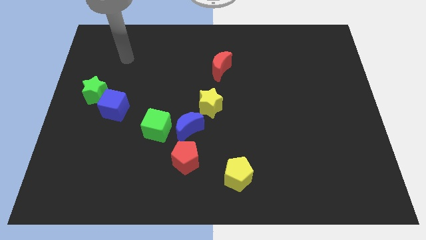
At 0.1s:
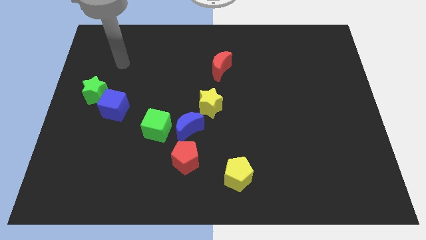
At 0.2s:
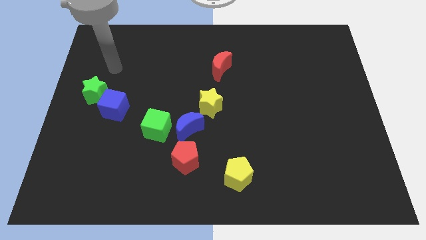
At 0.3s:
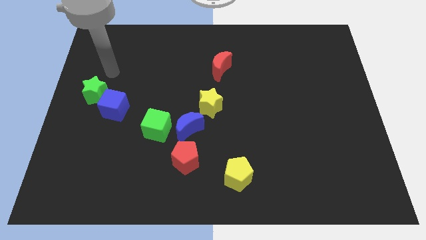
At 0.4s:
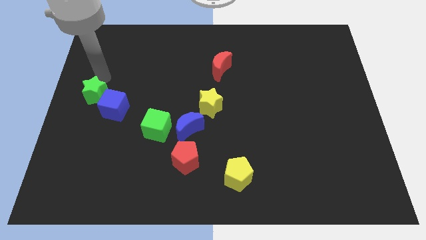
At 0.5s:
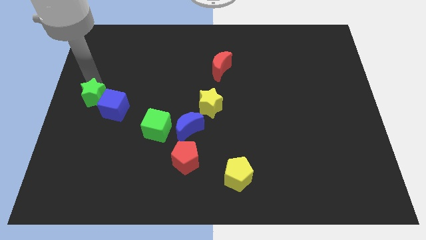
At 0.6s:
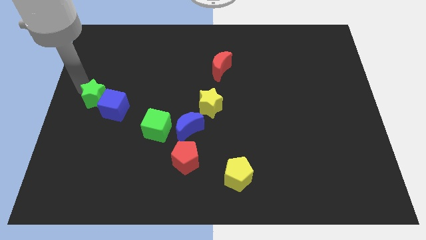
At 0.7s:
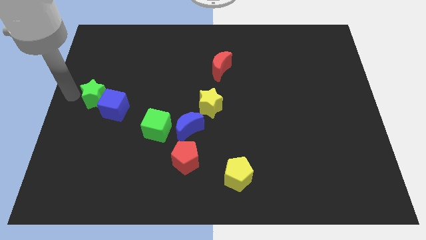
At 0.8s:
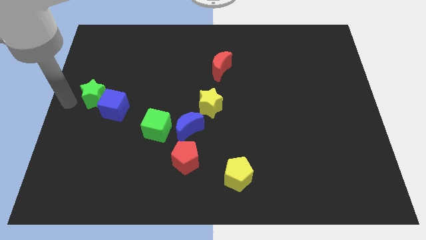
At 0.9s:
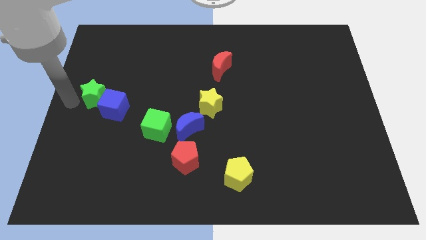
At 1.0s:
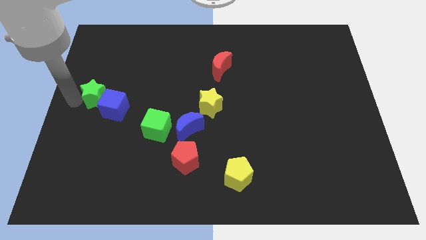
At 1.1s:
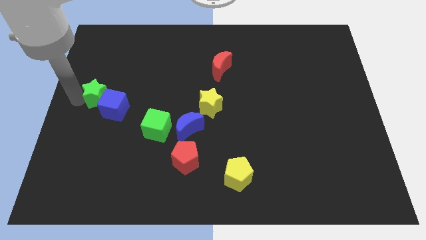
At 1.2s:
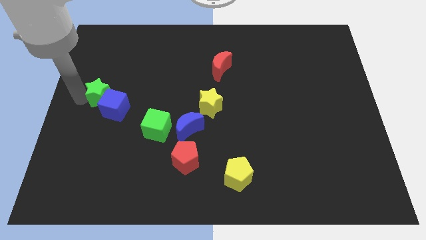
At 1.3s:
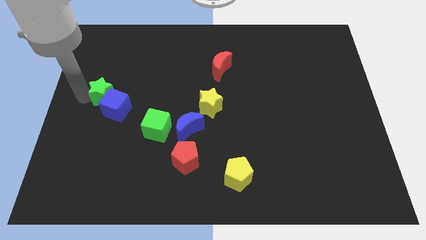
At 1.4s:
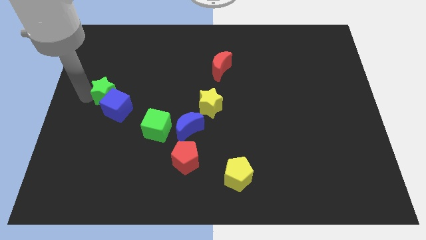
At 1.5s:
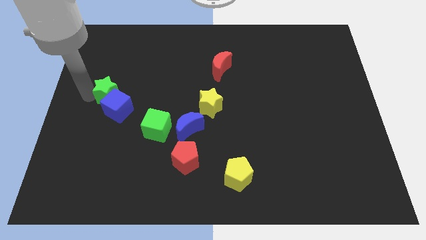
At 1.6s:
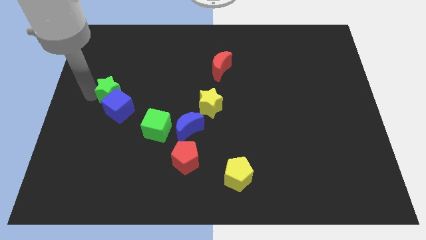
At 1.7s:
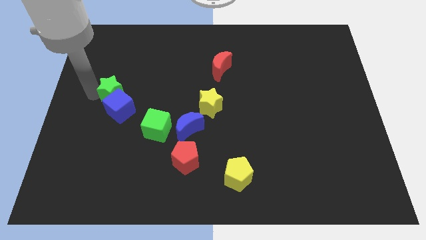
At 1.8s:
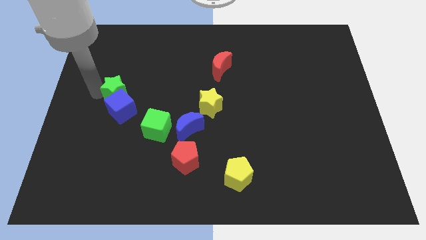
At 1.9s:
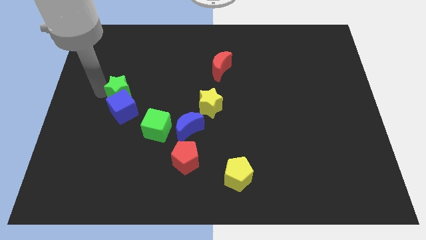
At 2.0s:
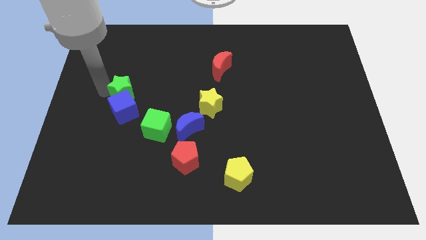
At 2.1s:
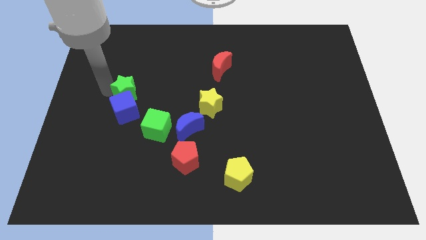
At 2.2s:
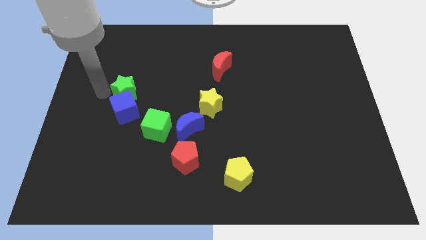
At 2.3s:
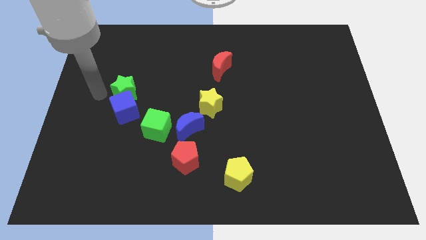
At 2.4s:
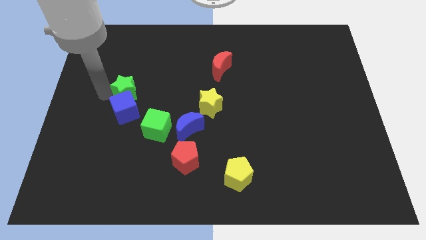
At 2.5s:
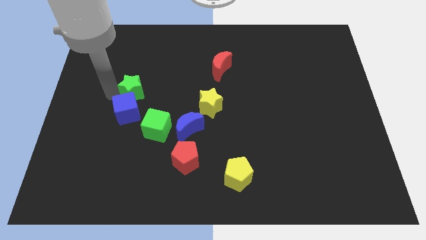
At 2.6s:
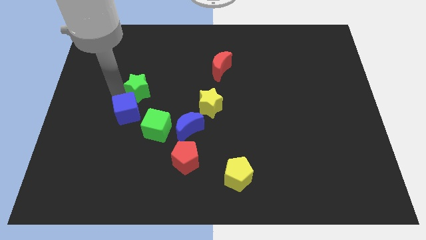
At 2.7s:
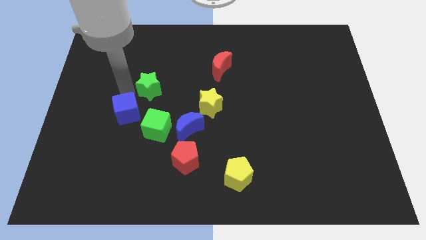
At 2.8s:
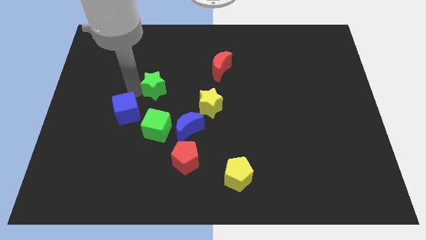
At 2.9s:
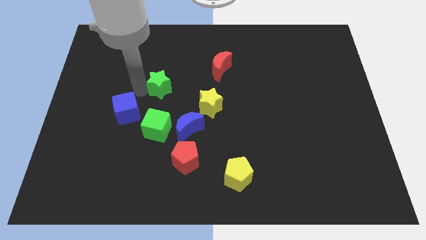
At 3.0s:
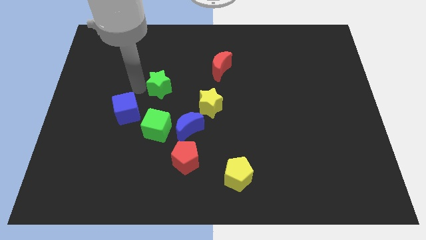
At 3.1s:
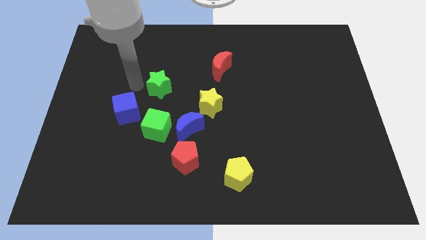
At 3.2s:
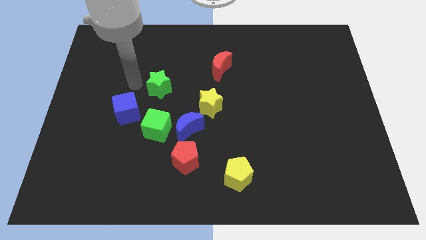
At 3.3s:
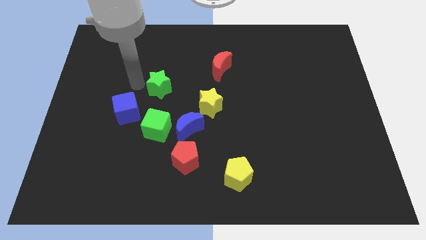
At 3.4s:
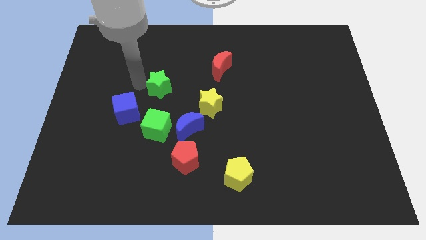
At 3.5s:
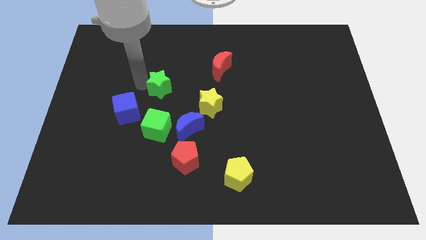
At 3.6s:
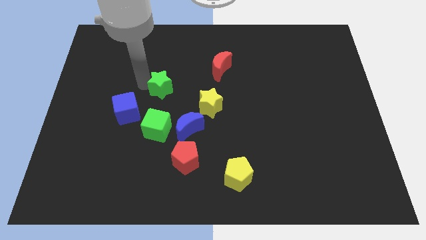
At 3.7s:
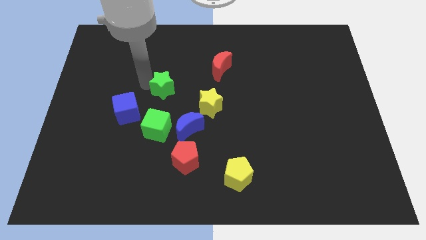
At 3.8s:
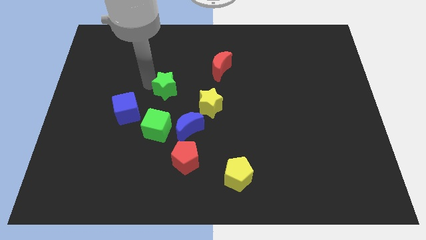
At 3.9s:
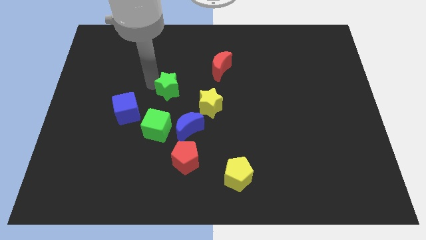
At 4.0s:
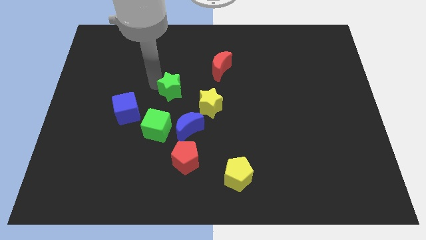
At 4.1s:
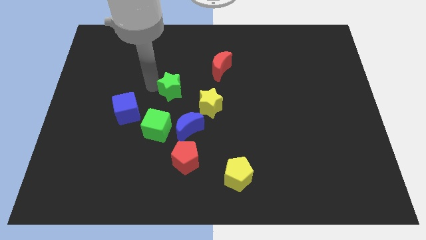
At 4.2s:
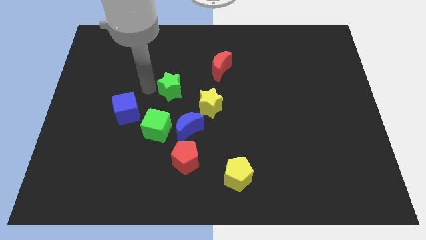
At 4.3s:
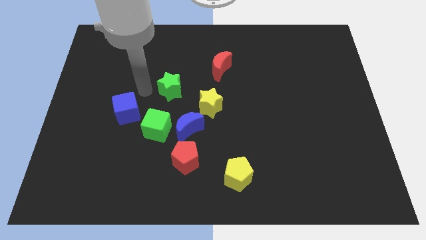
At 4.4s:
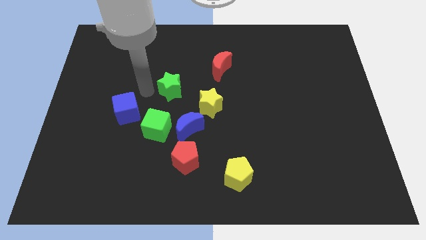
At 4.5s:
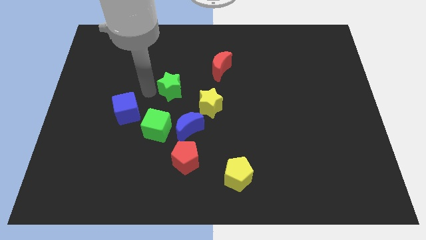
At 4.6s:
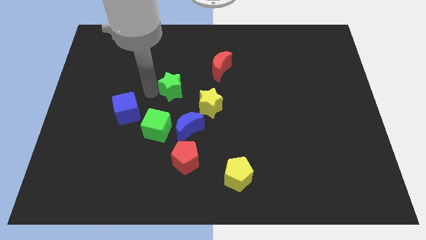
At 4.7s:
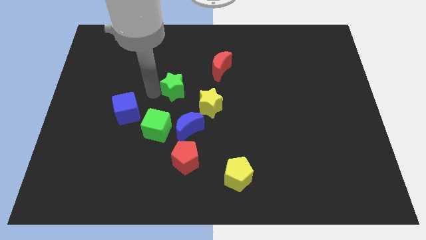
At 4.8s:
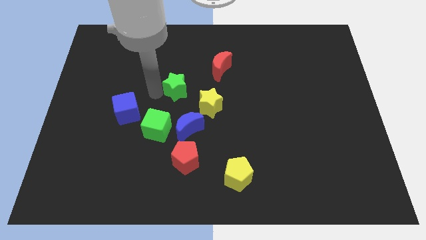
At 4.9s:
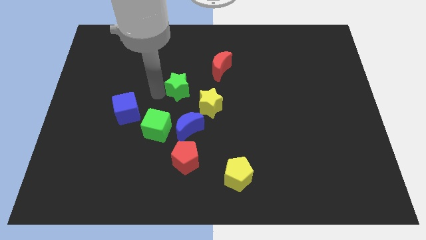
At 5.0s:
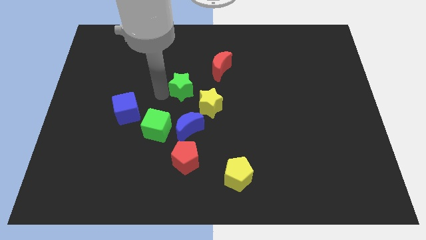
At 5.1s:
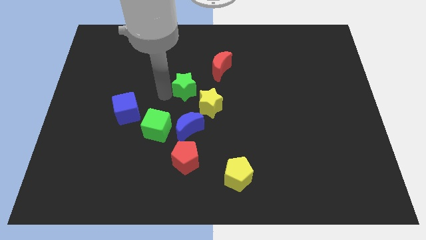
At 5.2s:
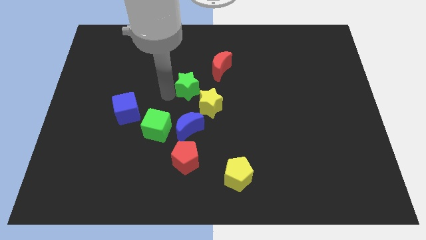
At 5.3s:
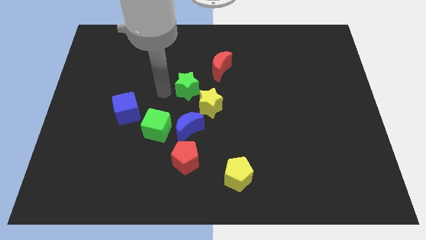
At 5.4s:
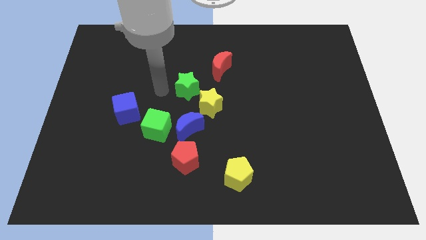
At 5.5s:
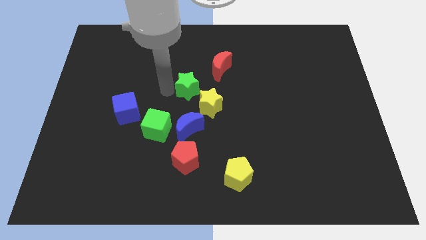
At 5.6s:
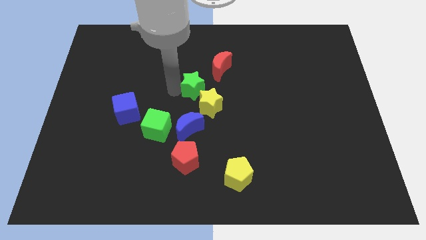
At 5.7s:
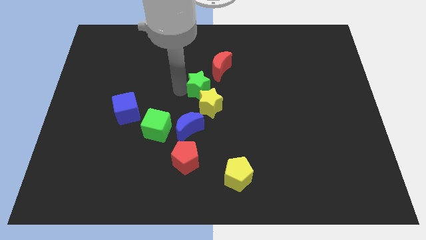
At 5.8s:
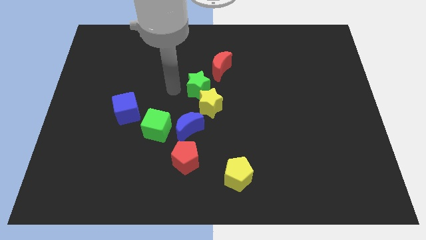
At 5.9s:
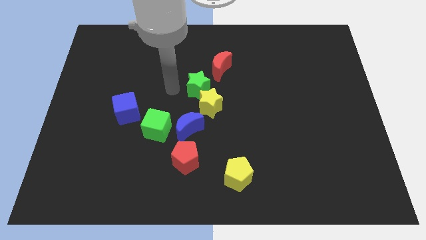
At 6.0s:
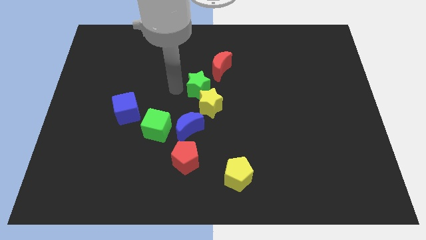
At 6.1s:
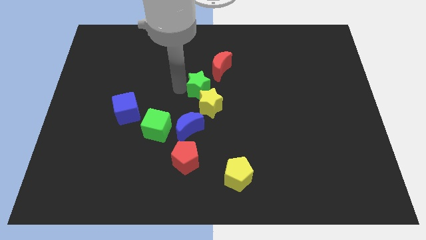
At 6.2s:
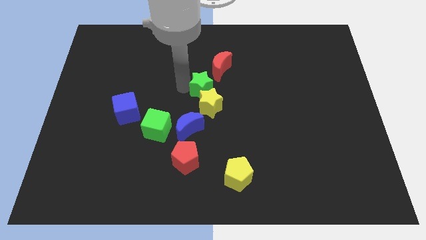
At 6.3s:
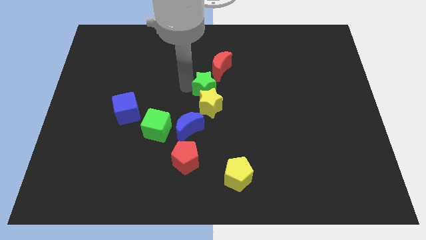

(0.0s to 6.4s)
move the green star to the top right of the yellow star
